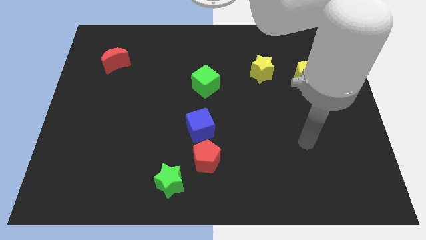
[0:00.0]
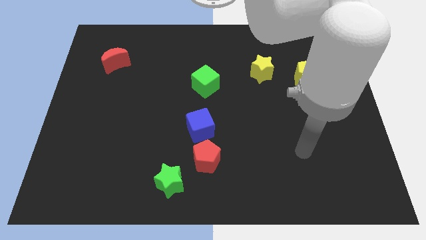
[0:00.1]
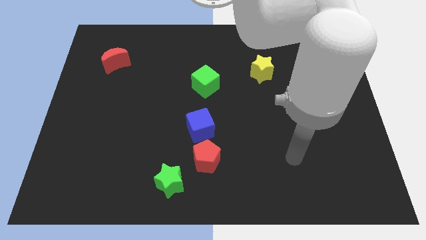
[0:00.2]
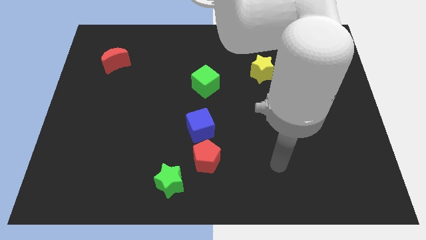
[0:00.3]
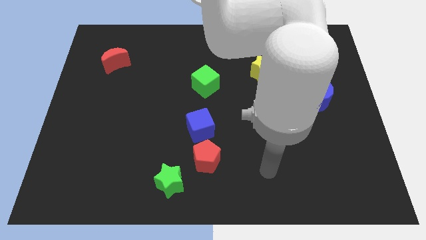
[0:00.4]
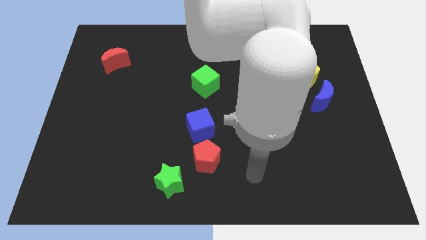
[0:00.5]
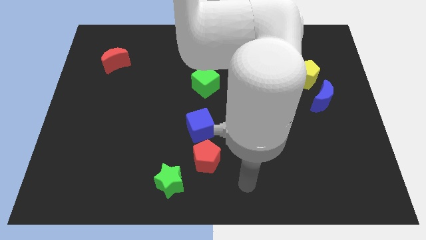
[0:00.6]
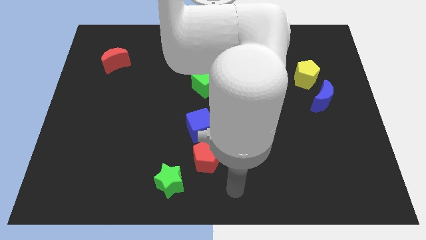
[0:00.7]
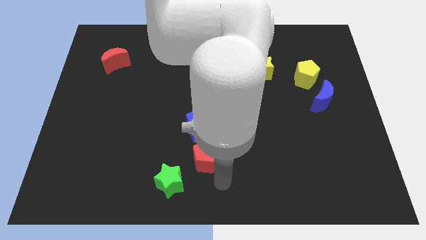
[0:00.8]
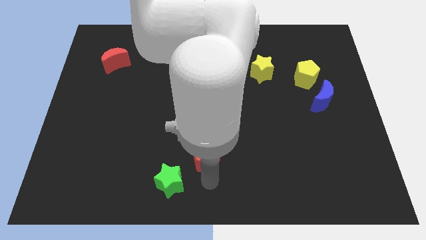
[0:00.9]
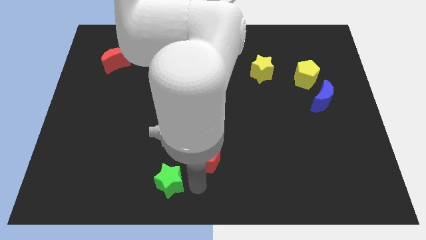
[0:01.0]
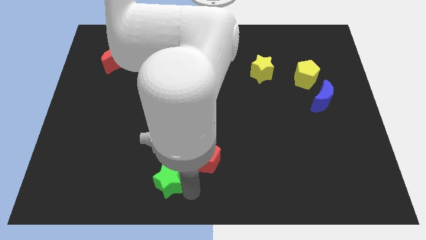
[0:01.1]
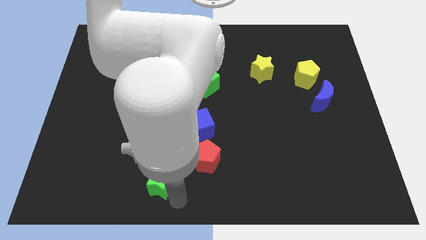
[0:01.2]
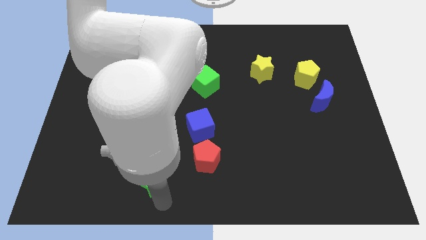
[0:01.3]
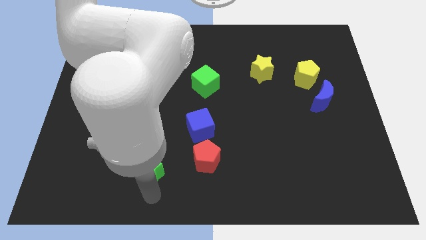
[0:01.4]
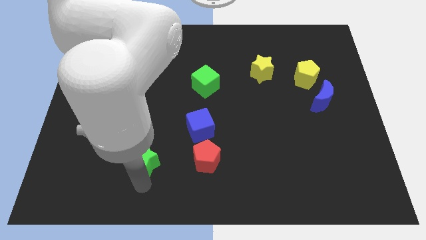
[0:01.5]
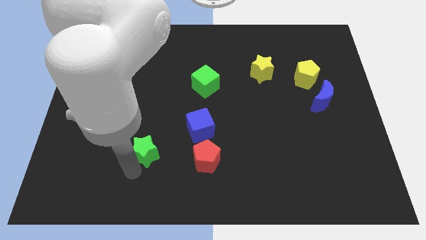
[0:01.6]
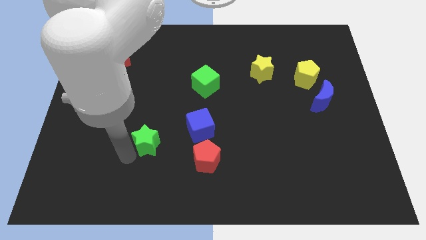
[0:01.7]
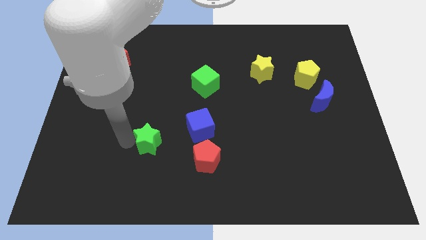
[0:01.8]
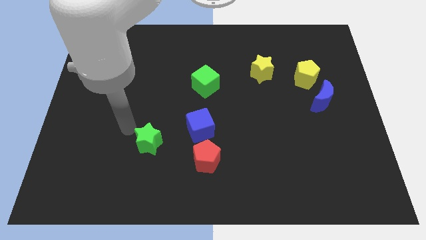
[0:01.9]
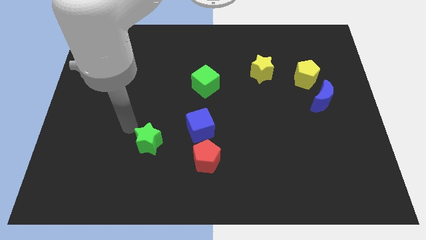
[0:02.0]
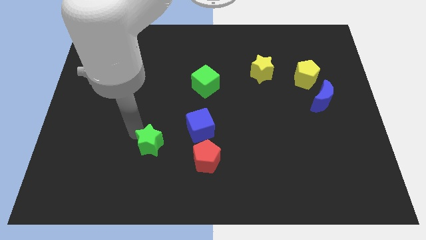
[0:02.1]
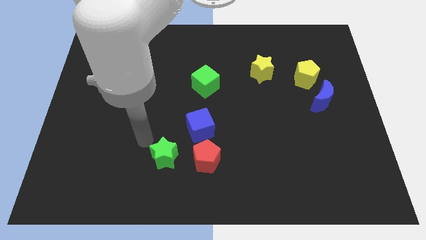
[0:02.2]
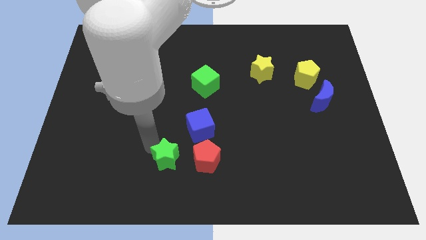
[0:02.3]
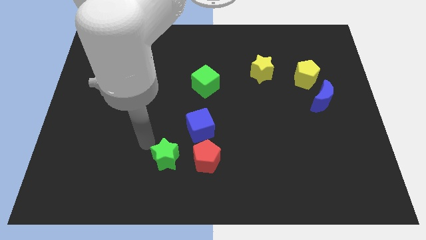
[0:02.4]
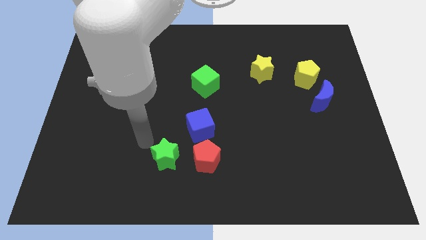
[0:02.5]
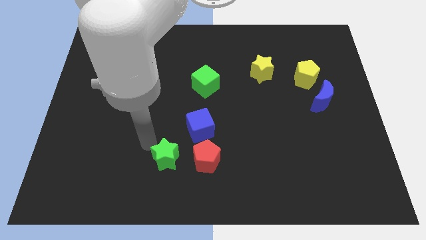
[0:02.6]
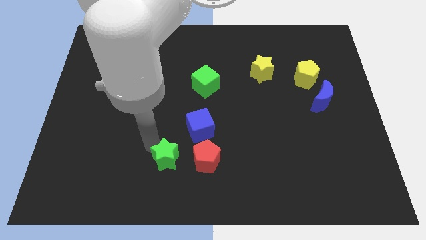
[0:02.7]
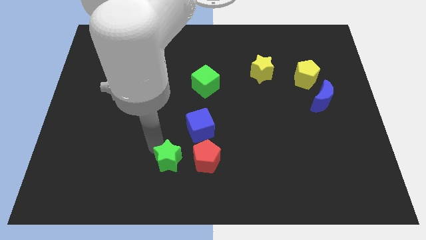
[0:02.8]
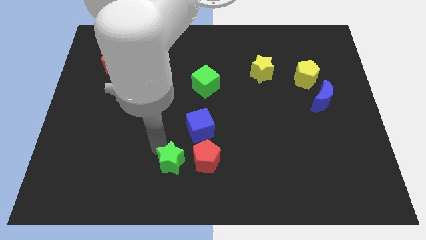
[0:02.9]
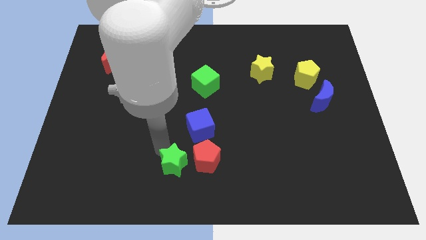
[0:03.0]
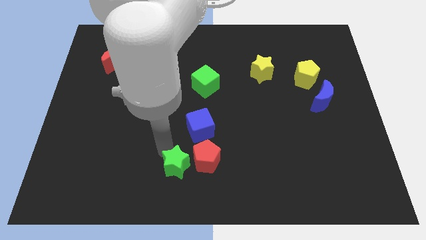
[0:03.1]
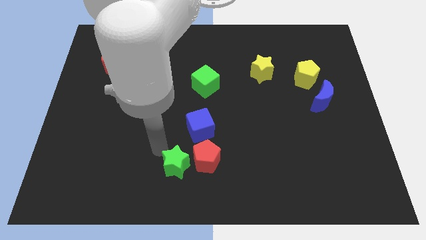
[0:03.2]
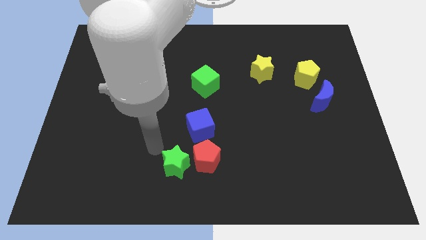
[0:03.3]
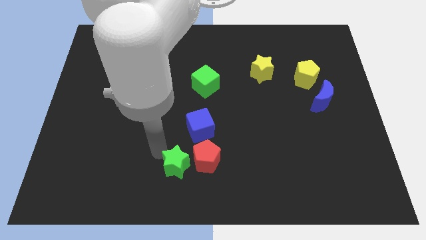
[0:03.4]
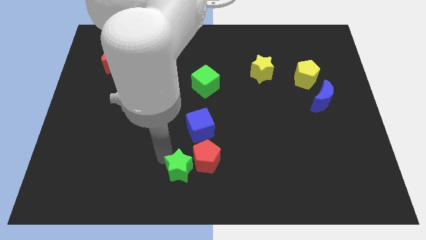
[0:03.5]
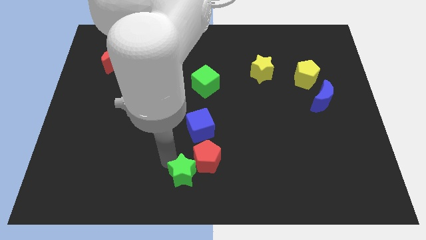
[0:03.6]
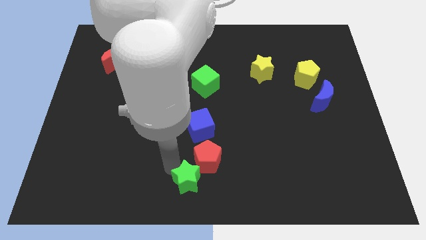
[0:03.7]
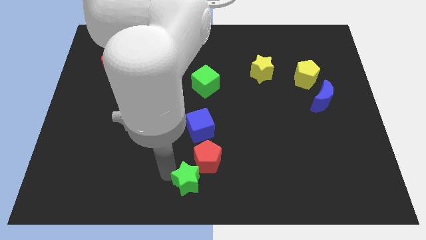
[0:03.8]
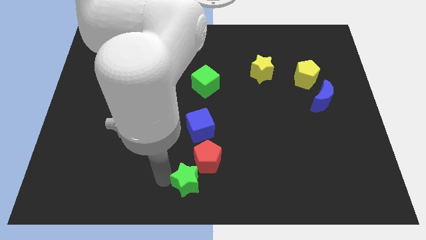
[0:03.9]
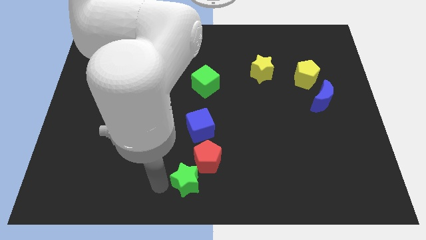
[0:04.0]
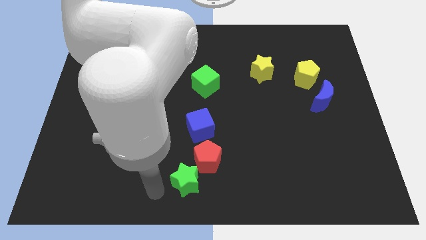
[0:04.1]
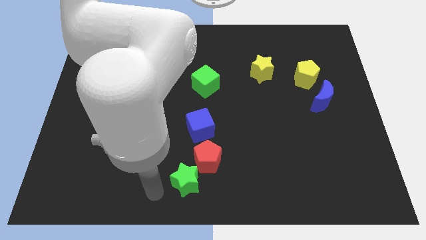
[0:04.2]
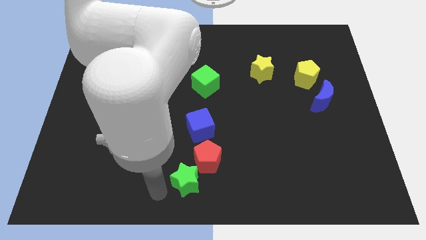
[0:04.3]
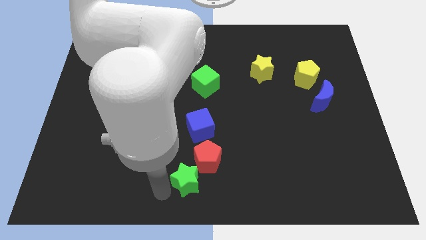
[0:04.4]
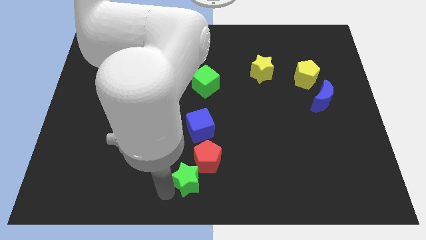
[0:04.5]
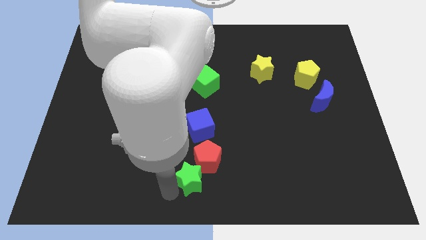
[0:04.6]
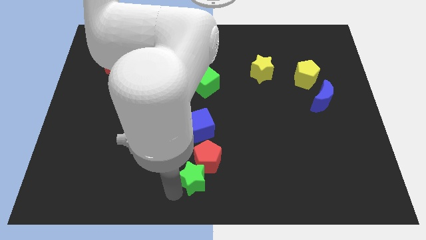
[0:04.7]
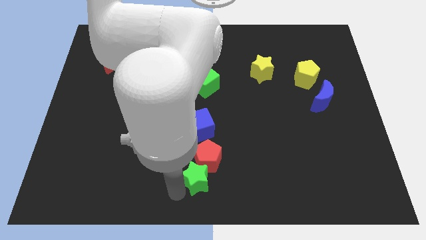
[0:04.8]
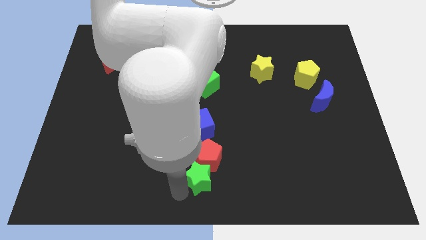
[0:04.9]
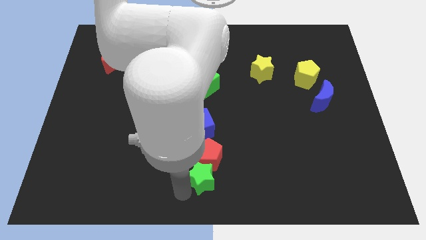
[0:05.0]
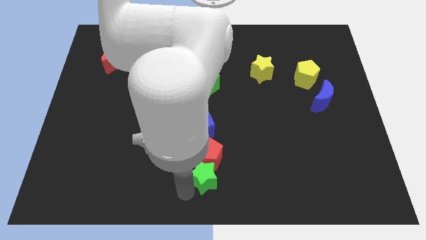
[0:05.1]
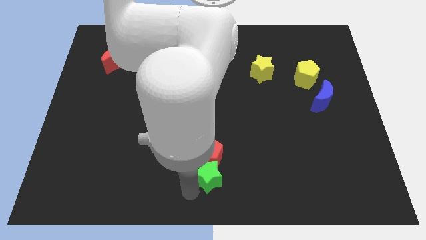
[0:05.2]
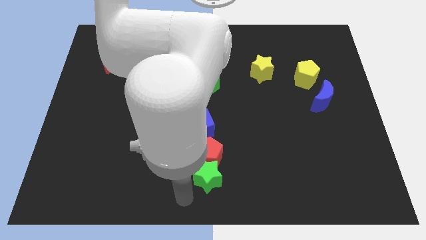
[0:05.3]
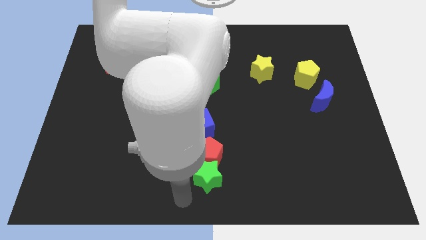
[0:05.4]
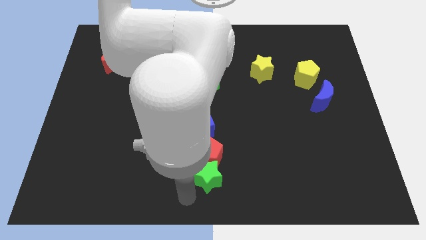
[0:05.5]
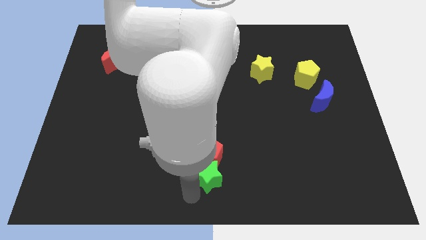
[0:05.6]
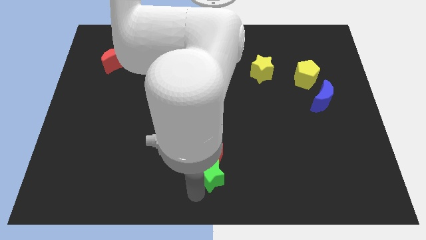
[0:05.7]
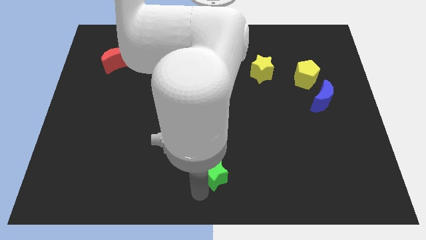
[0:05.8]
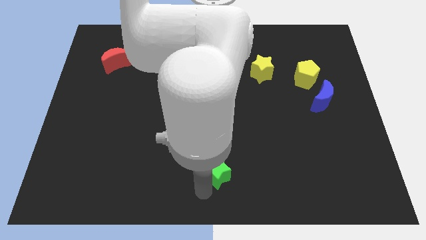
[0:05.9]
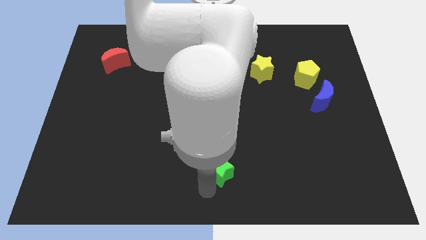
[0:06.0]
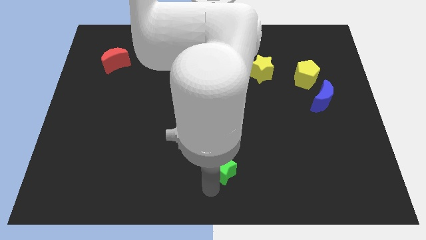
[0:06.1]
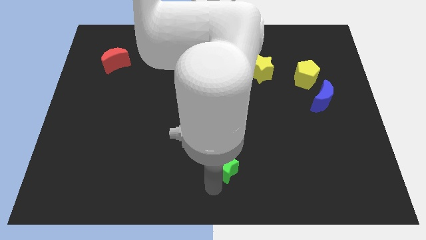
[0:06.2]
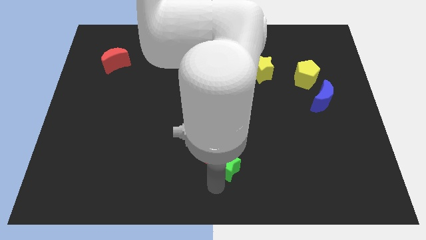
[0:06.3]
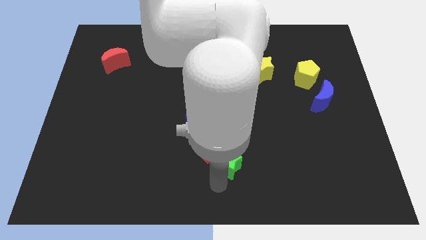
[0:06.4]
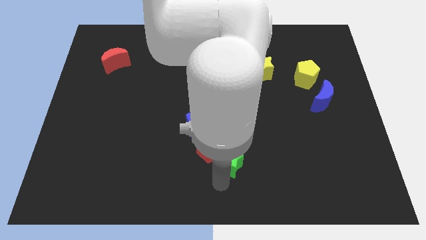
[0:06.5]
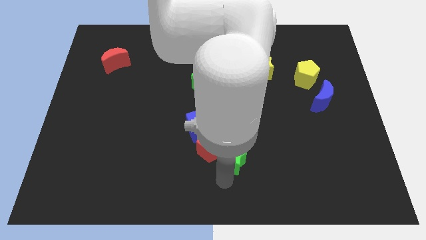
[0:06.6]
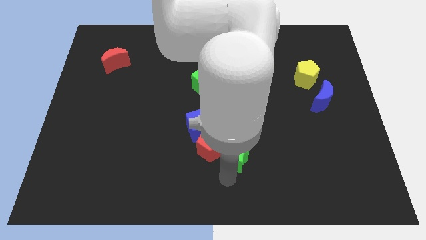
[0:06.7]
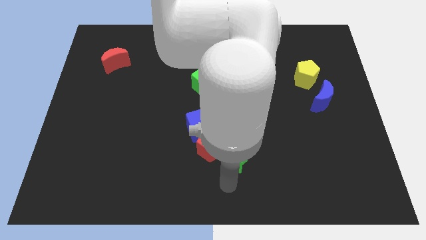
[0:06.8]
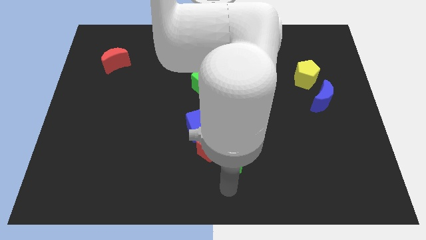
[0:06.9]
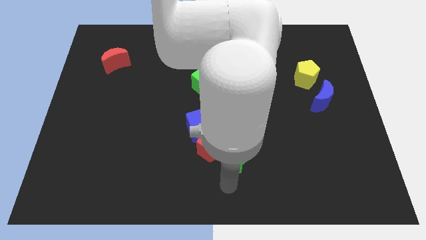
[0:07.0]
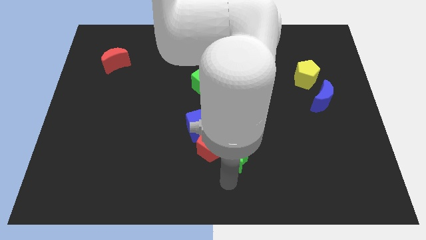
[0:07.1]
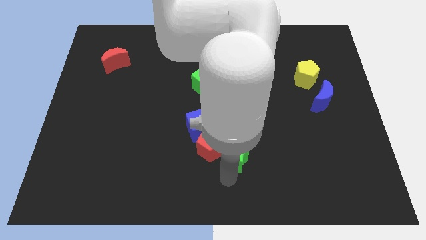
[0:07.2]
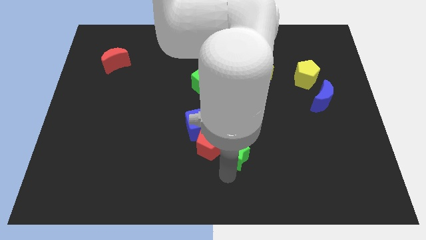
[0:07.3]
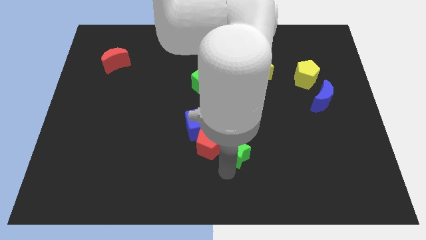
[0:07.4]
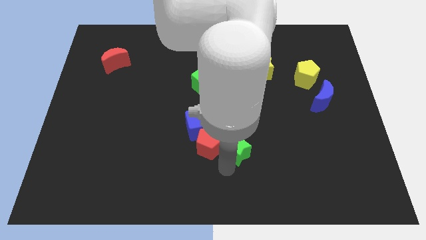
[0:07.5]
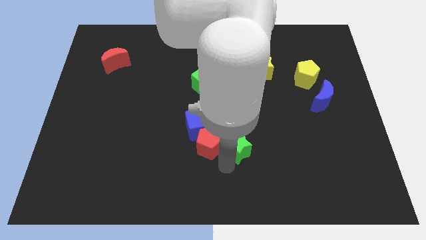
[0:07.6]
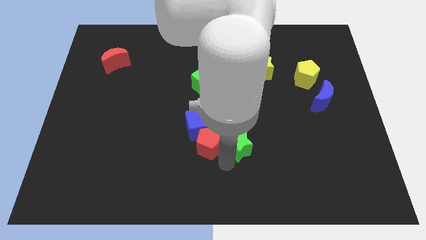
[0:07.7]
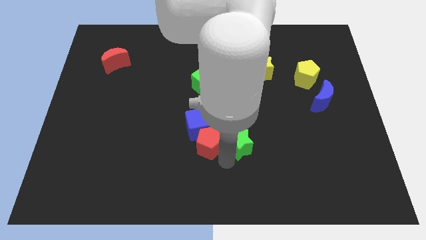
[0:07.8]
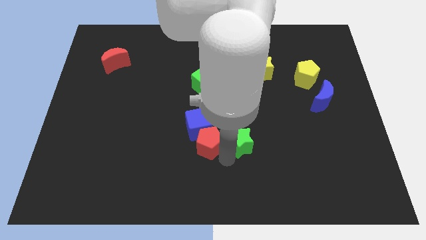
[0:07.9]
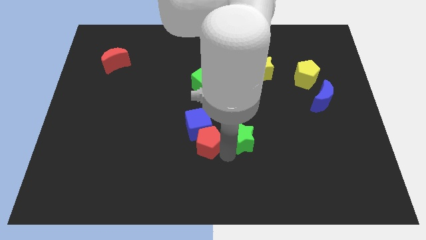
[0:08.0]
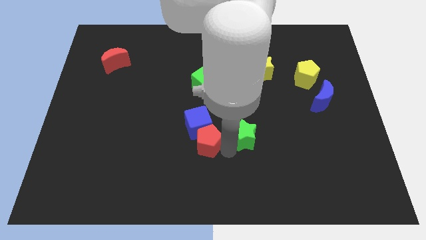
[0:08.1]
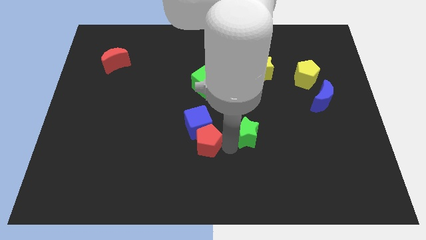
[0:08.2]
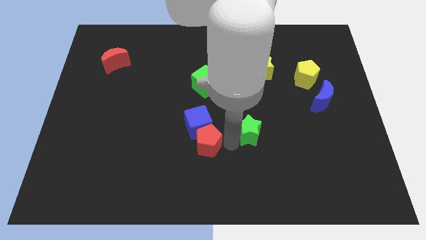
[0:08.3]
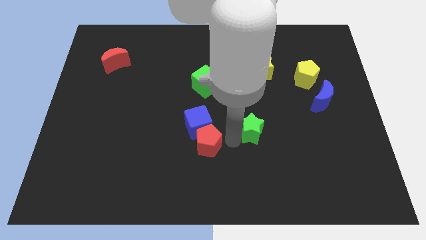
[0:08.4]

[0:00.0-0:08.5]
slide the green star up and to the right
